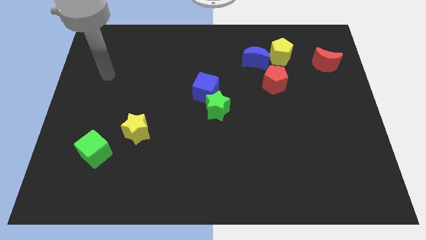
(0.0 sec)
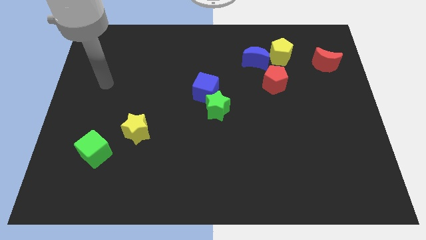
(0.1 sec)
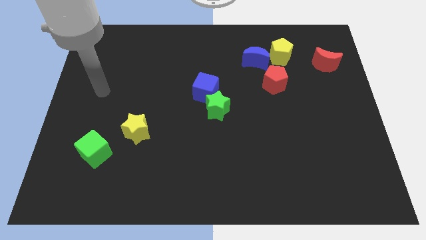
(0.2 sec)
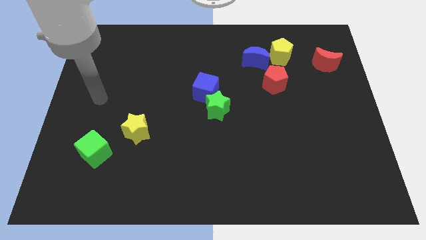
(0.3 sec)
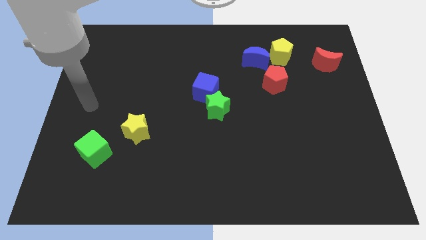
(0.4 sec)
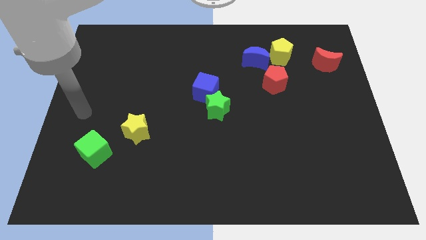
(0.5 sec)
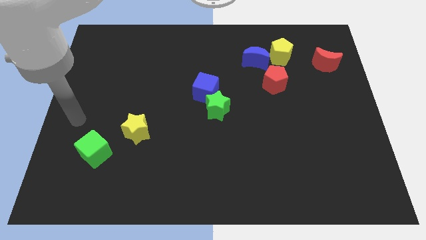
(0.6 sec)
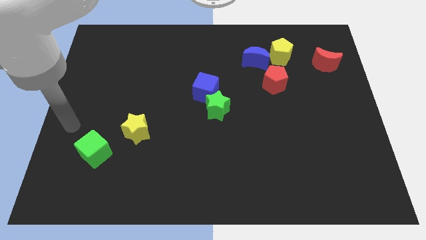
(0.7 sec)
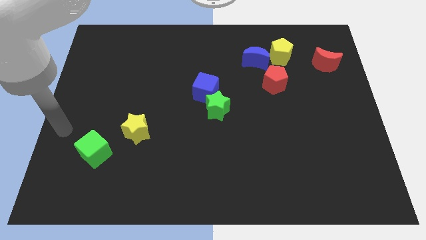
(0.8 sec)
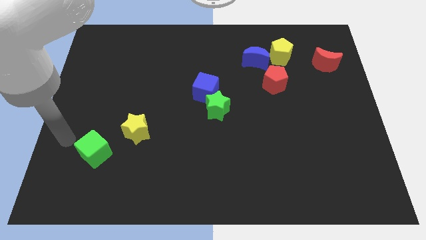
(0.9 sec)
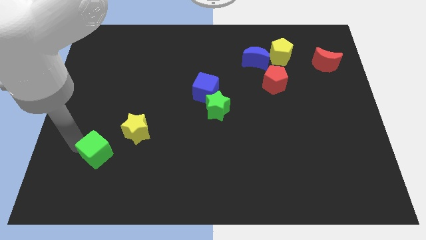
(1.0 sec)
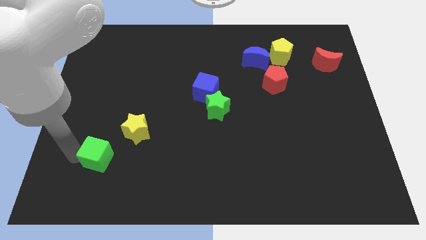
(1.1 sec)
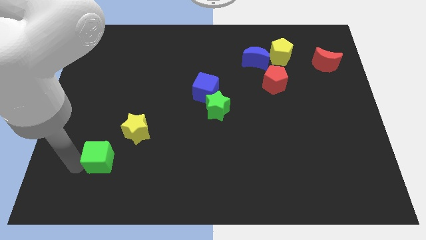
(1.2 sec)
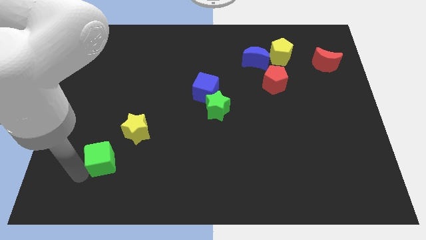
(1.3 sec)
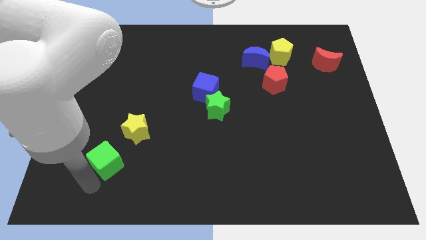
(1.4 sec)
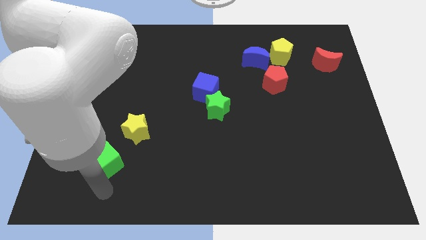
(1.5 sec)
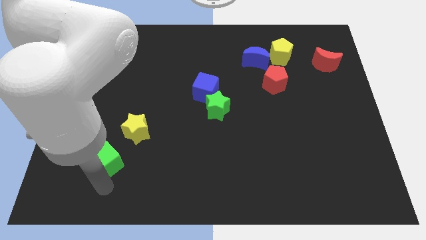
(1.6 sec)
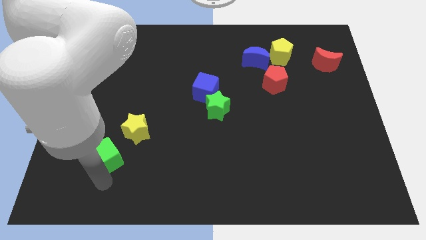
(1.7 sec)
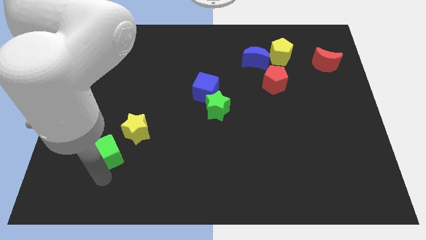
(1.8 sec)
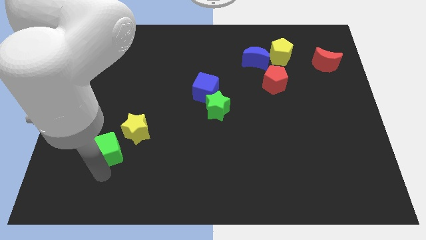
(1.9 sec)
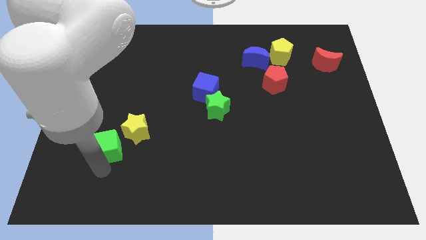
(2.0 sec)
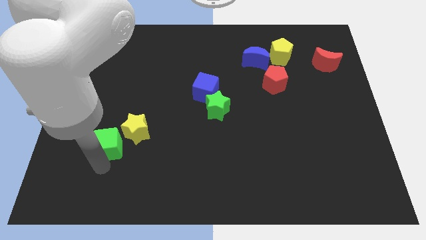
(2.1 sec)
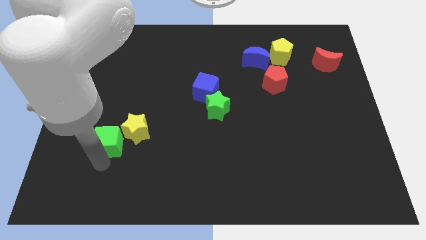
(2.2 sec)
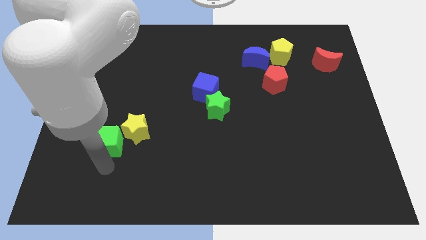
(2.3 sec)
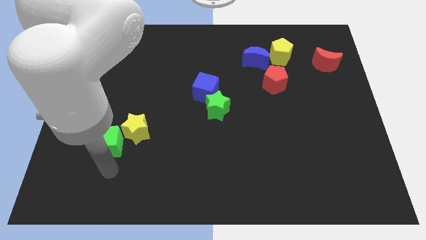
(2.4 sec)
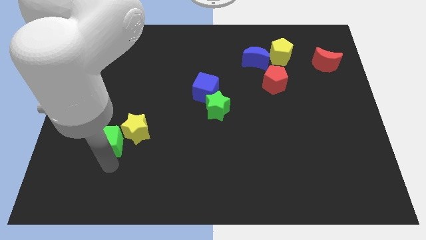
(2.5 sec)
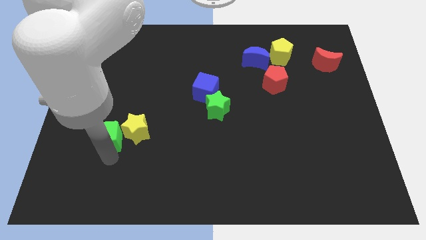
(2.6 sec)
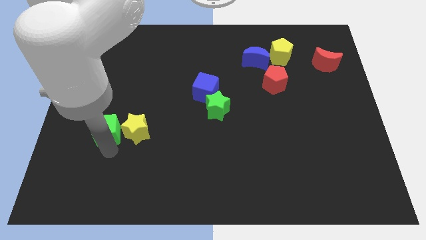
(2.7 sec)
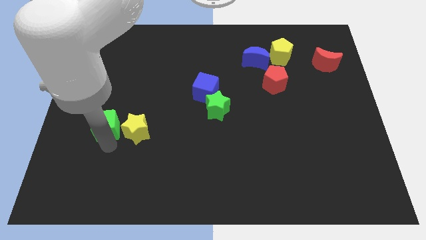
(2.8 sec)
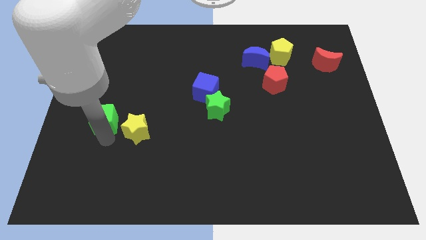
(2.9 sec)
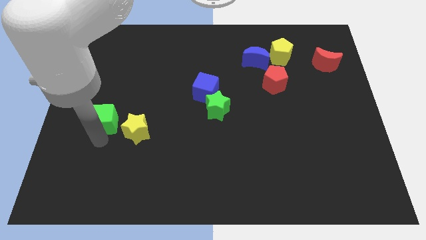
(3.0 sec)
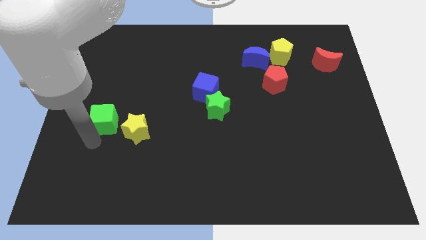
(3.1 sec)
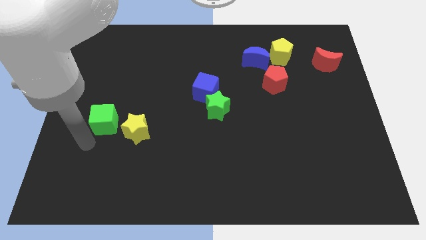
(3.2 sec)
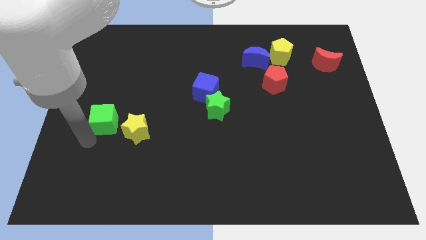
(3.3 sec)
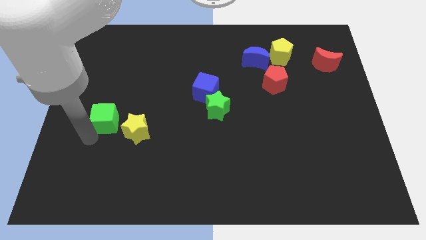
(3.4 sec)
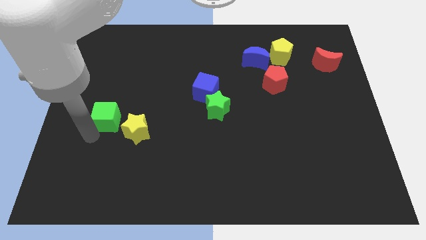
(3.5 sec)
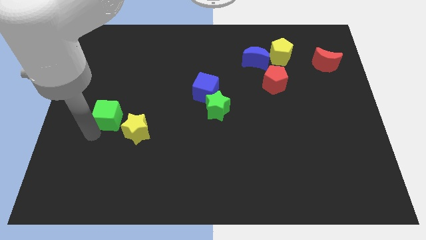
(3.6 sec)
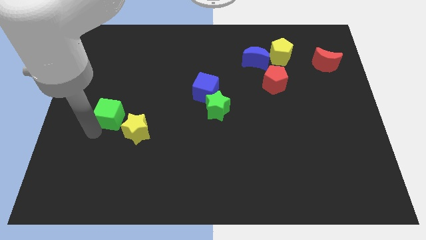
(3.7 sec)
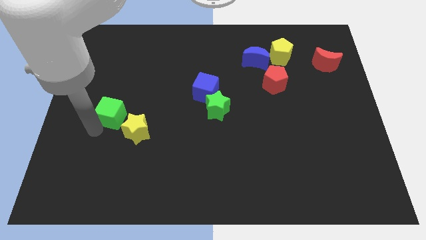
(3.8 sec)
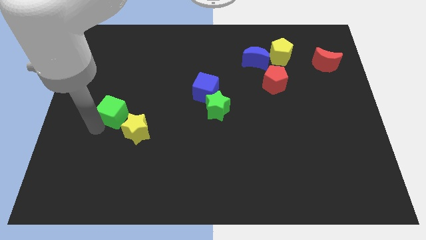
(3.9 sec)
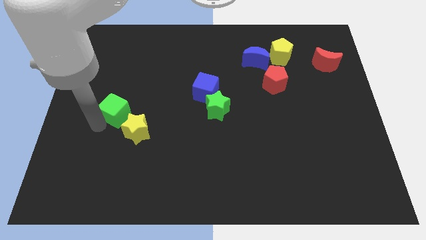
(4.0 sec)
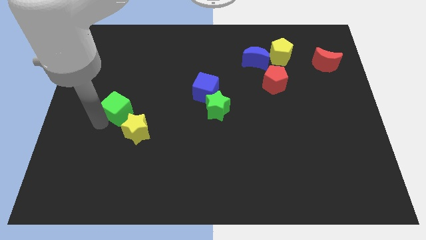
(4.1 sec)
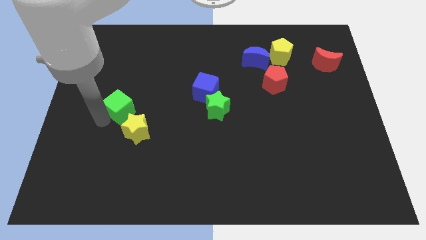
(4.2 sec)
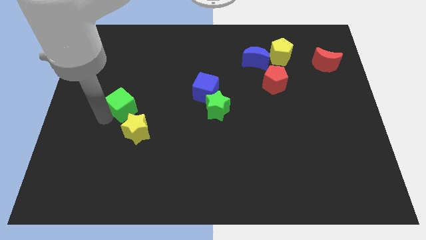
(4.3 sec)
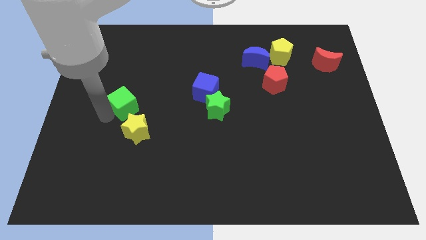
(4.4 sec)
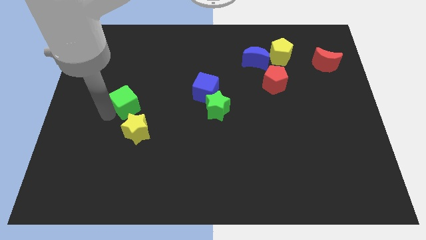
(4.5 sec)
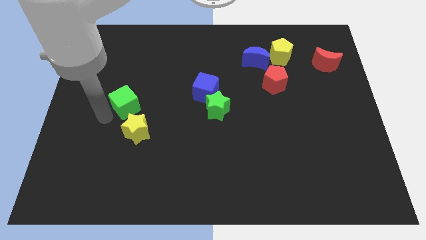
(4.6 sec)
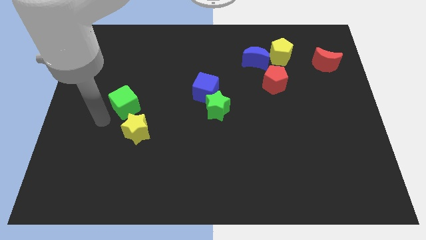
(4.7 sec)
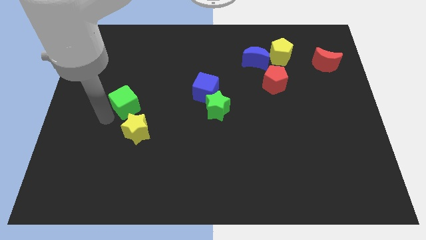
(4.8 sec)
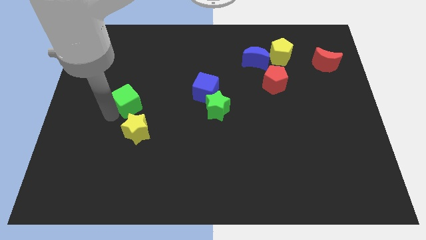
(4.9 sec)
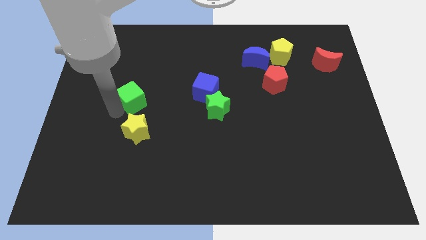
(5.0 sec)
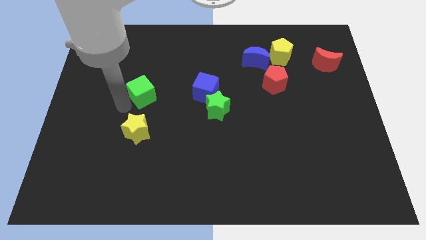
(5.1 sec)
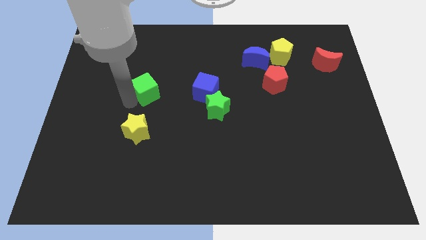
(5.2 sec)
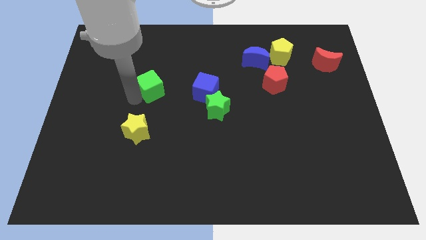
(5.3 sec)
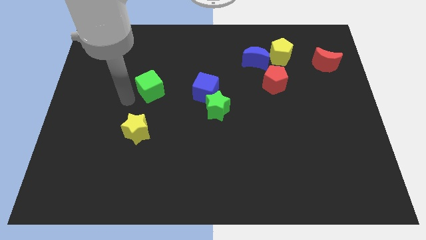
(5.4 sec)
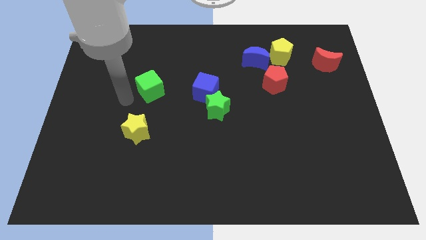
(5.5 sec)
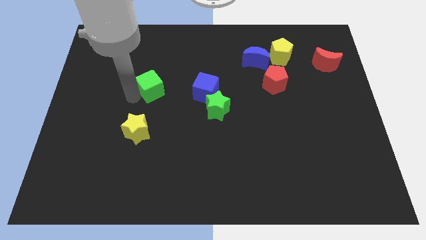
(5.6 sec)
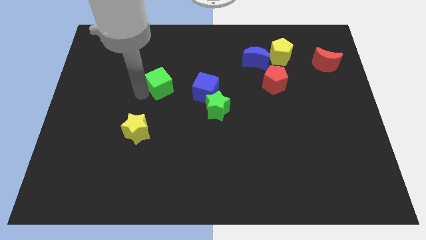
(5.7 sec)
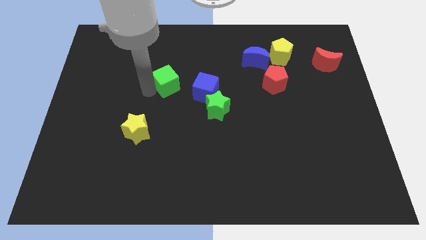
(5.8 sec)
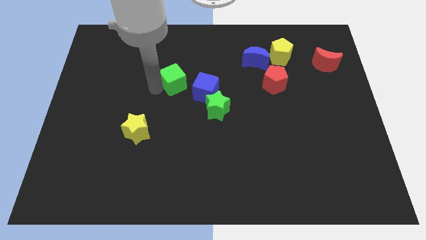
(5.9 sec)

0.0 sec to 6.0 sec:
push the green cube to the top left side of the blue cube

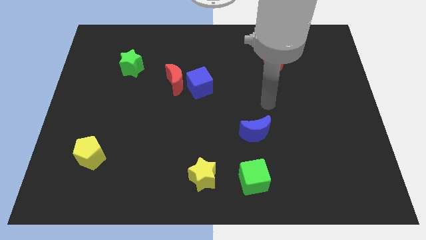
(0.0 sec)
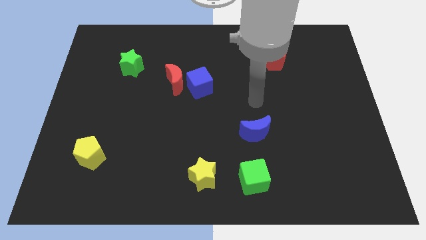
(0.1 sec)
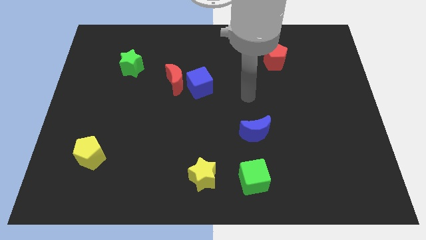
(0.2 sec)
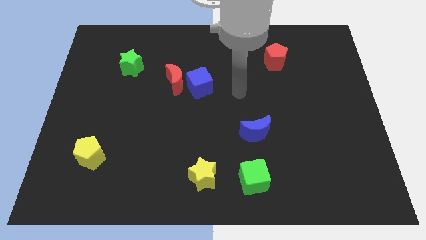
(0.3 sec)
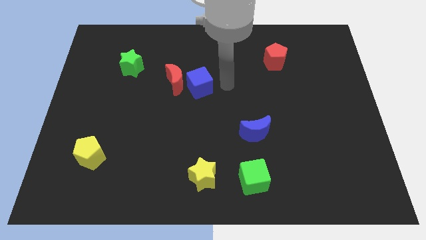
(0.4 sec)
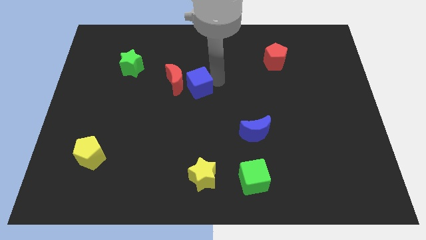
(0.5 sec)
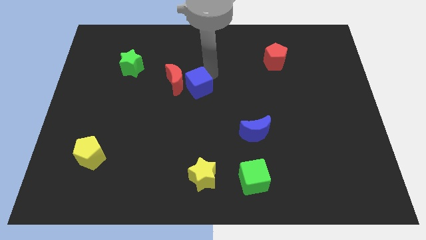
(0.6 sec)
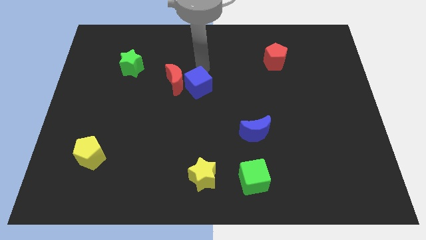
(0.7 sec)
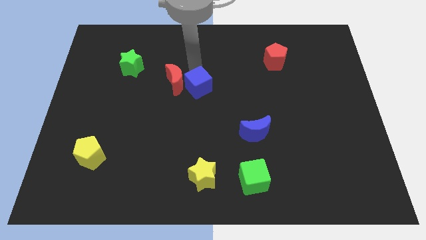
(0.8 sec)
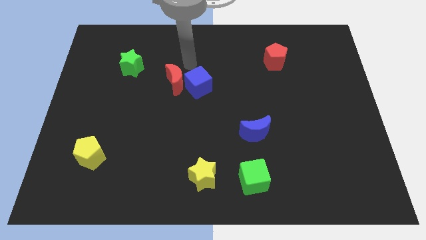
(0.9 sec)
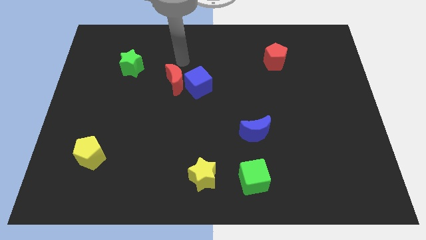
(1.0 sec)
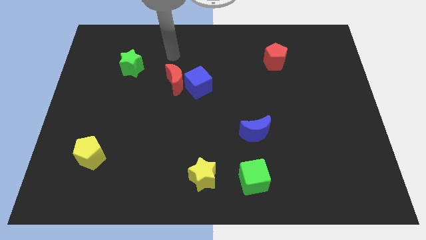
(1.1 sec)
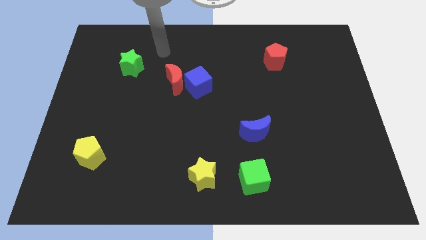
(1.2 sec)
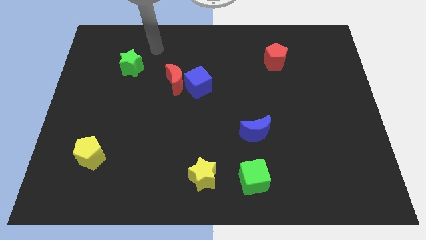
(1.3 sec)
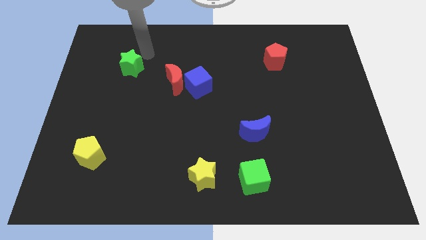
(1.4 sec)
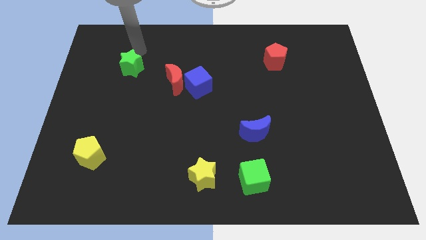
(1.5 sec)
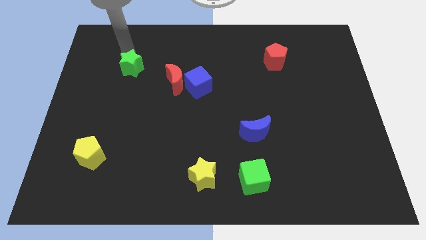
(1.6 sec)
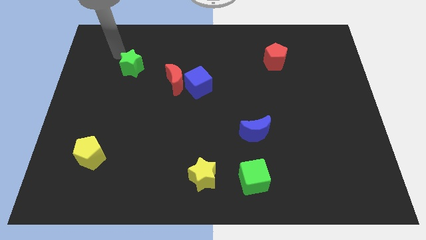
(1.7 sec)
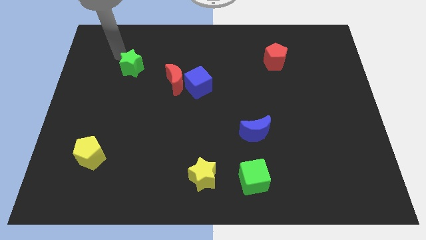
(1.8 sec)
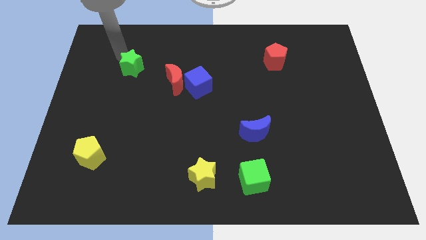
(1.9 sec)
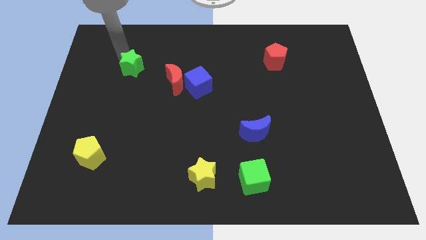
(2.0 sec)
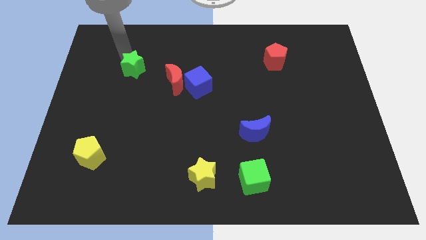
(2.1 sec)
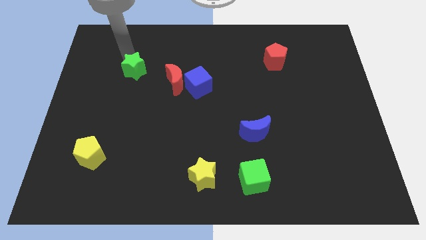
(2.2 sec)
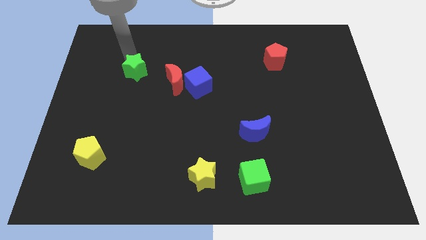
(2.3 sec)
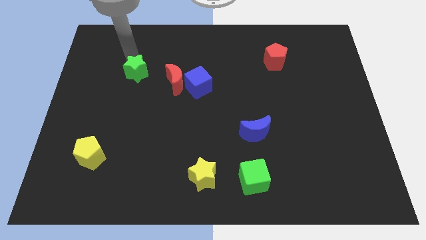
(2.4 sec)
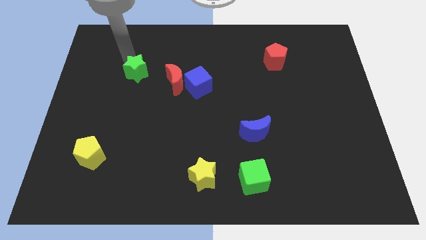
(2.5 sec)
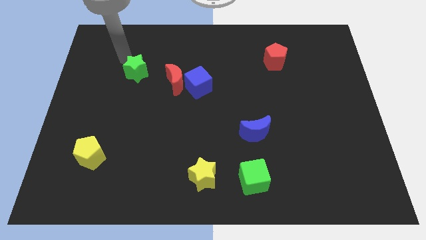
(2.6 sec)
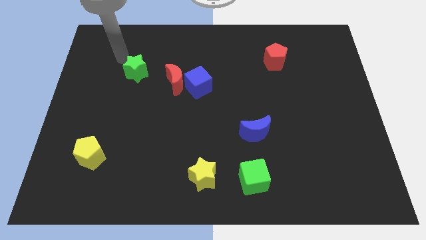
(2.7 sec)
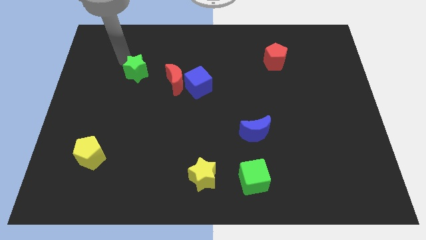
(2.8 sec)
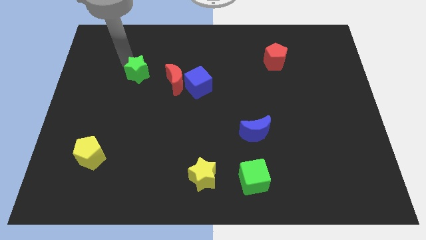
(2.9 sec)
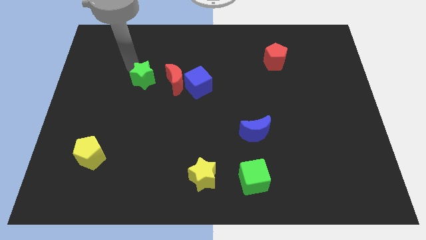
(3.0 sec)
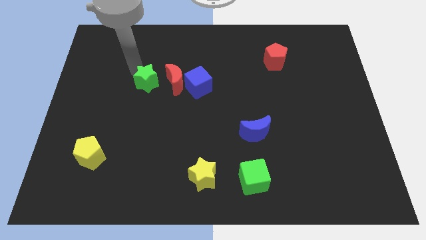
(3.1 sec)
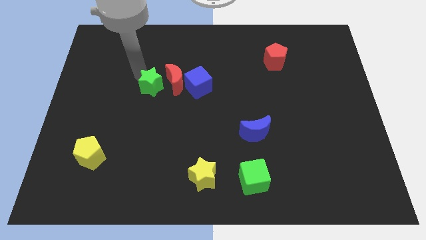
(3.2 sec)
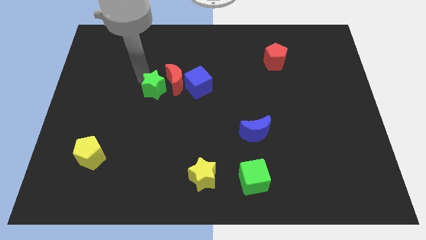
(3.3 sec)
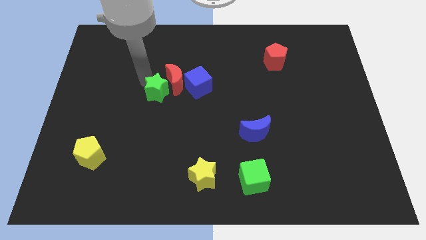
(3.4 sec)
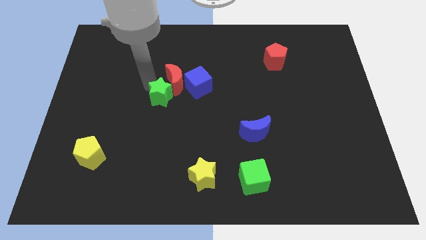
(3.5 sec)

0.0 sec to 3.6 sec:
put the green star diagonally down and to the left of the blue cube
